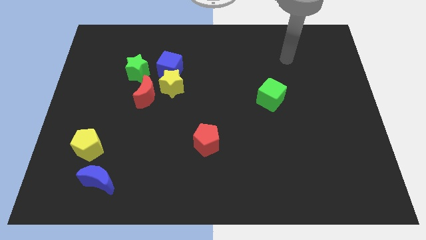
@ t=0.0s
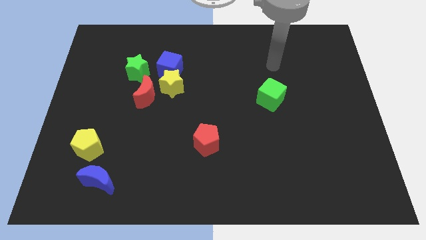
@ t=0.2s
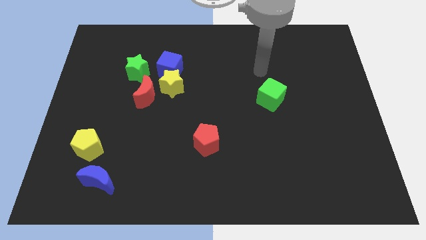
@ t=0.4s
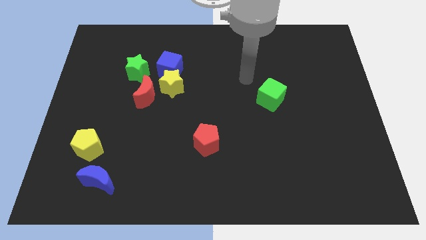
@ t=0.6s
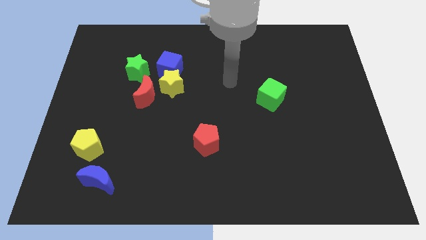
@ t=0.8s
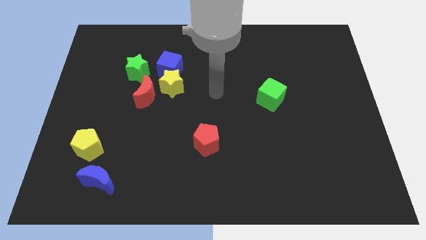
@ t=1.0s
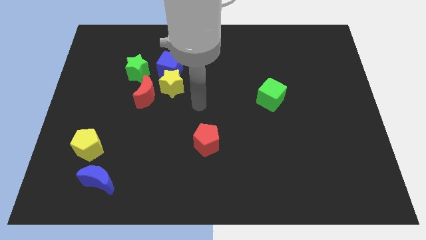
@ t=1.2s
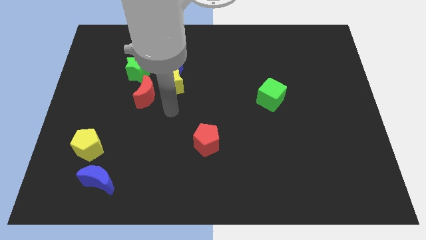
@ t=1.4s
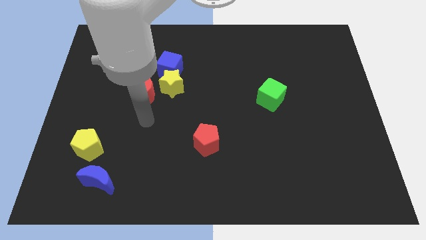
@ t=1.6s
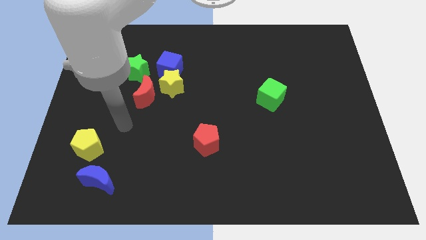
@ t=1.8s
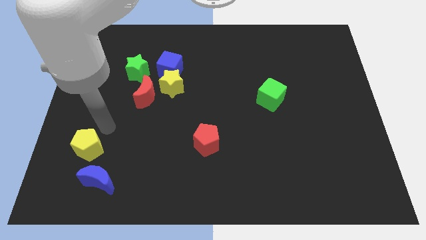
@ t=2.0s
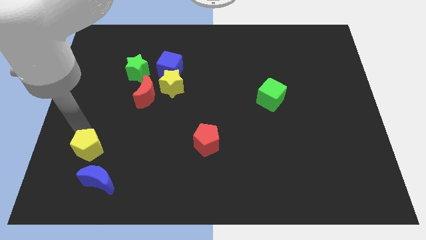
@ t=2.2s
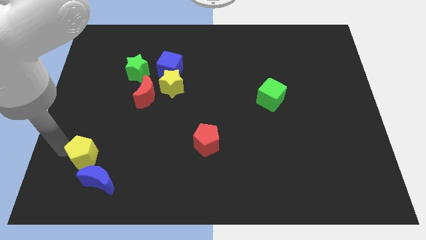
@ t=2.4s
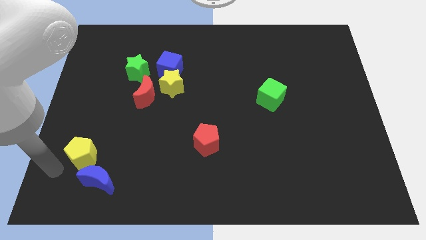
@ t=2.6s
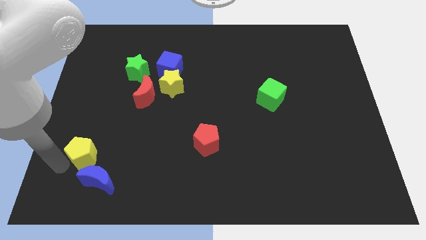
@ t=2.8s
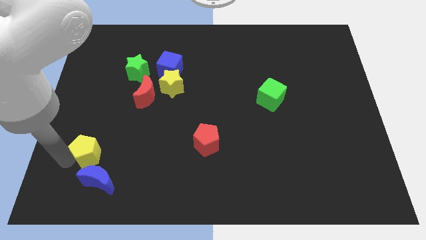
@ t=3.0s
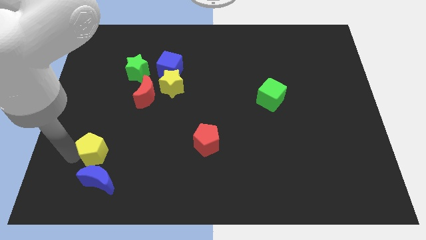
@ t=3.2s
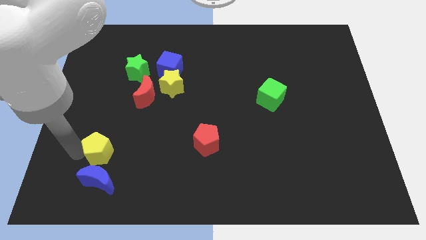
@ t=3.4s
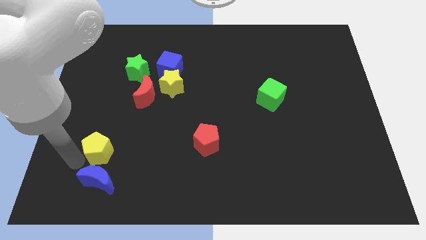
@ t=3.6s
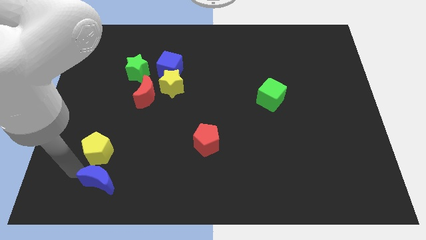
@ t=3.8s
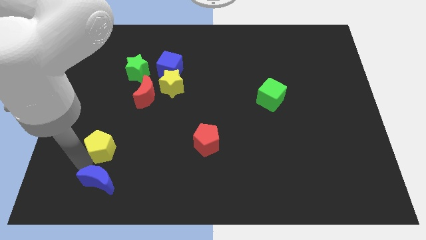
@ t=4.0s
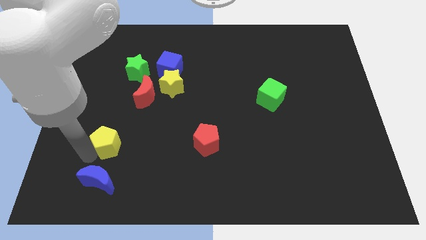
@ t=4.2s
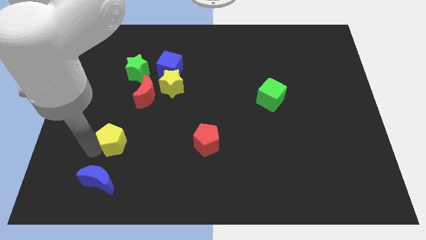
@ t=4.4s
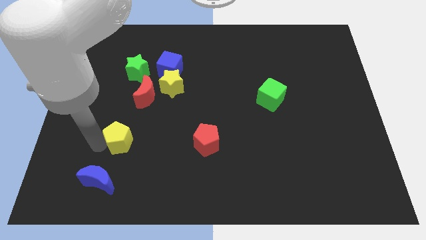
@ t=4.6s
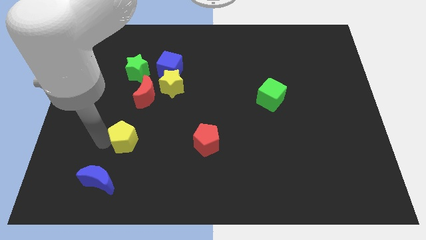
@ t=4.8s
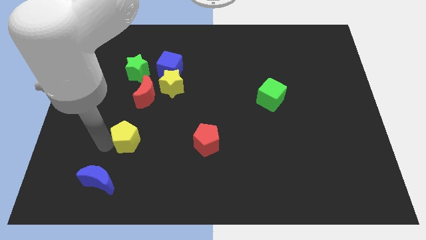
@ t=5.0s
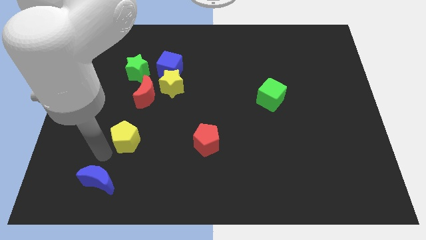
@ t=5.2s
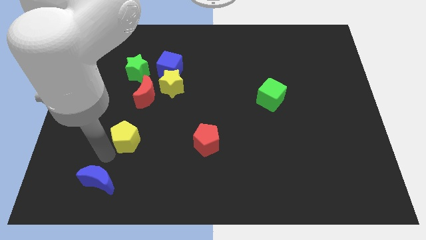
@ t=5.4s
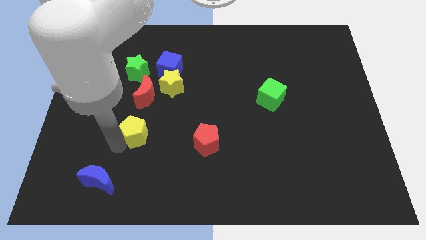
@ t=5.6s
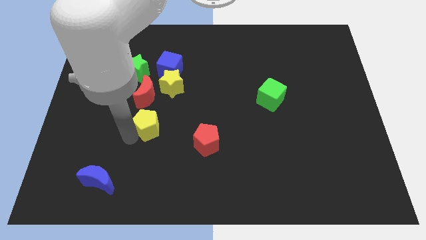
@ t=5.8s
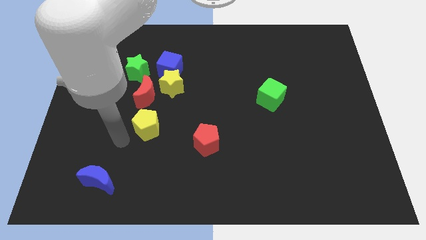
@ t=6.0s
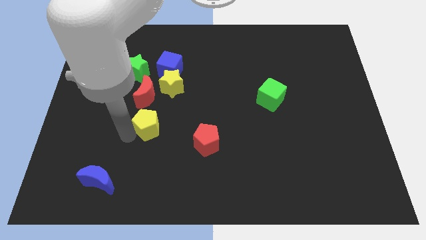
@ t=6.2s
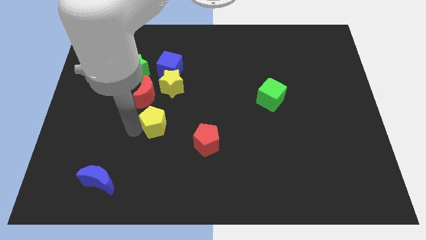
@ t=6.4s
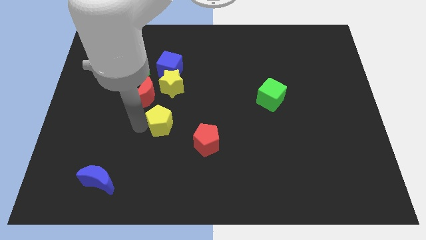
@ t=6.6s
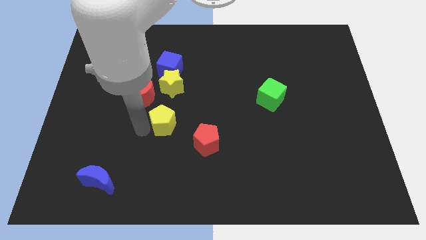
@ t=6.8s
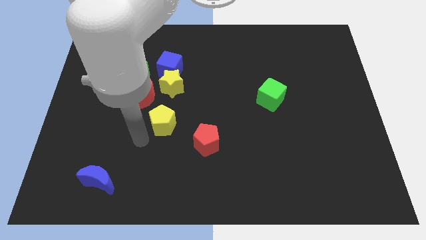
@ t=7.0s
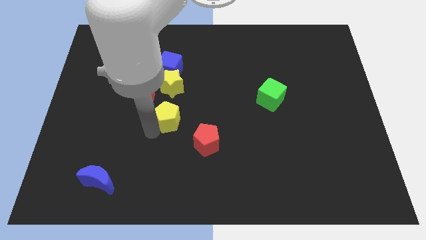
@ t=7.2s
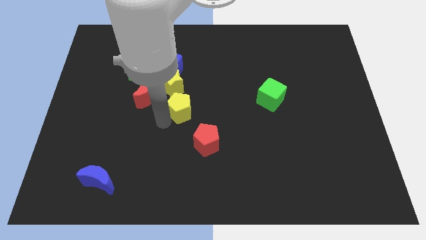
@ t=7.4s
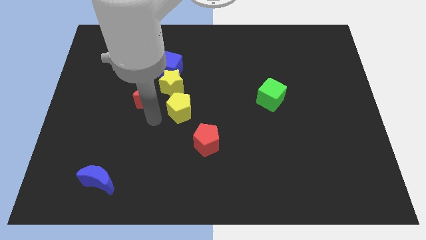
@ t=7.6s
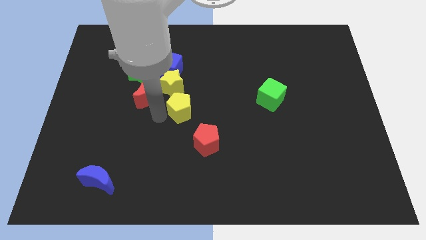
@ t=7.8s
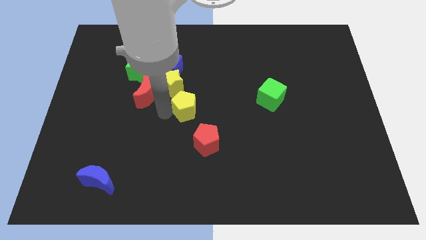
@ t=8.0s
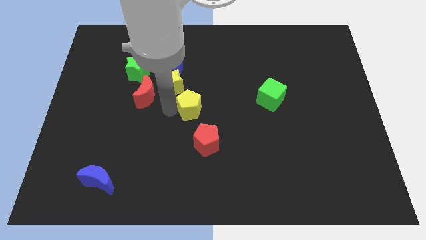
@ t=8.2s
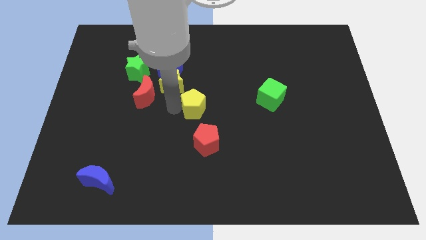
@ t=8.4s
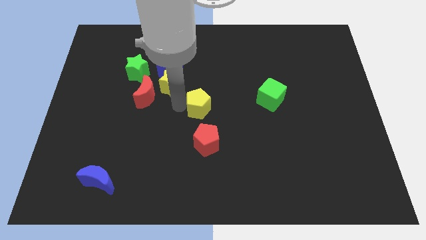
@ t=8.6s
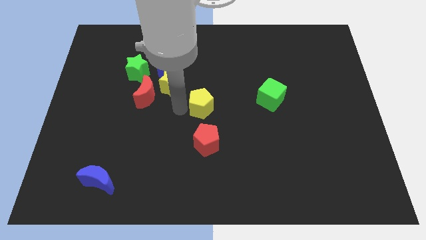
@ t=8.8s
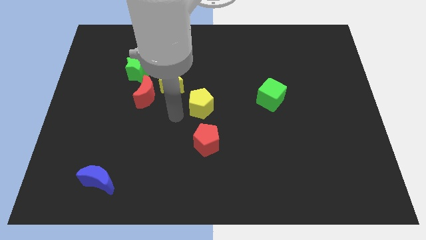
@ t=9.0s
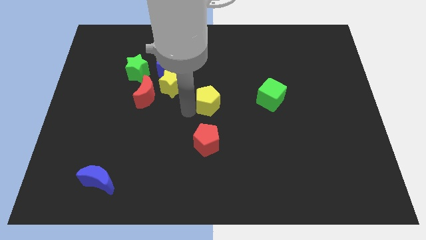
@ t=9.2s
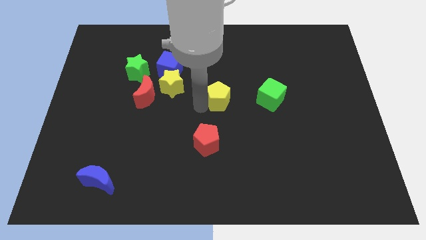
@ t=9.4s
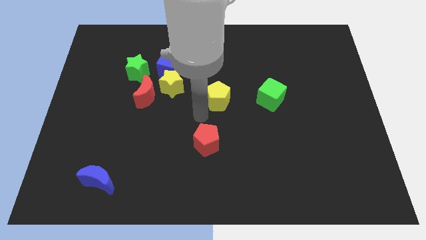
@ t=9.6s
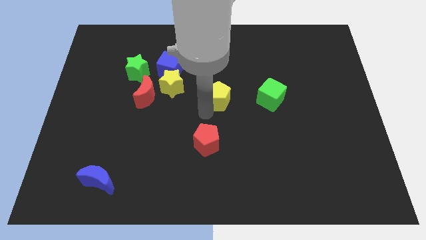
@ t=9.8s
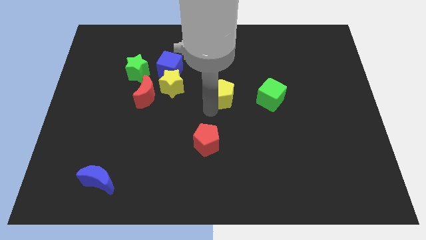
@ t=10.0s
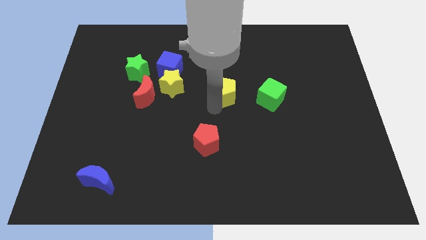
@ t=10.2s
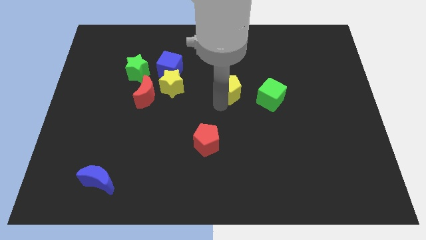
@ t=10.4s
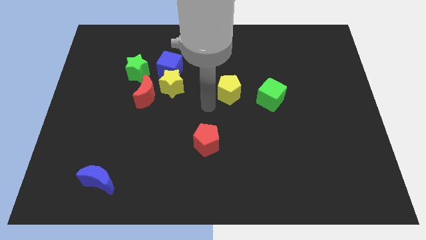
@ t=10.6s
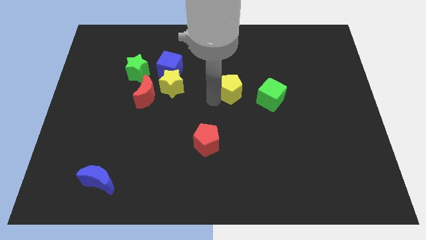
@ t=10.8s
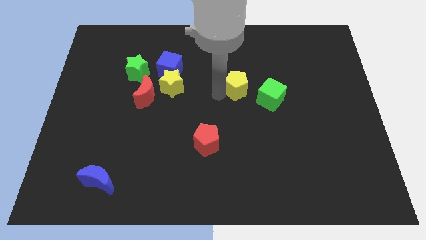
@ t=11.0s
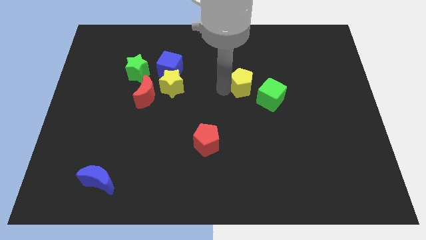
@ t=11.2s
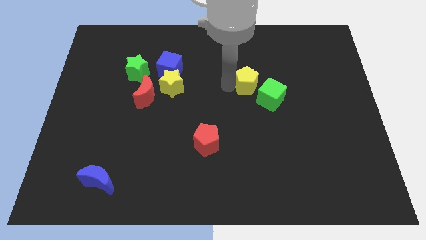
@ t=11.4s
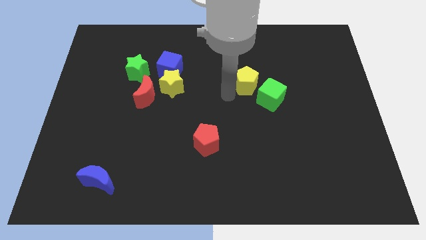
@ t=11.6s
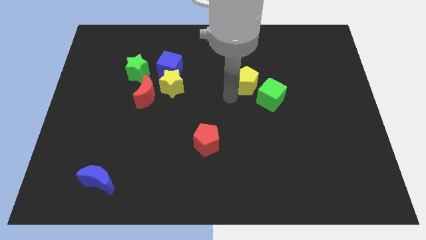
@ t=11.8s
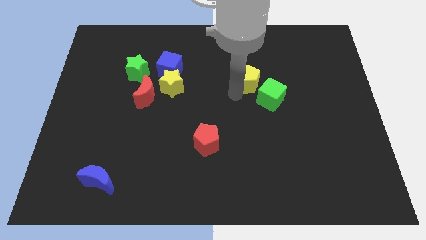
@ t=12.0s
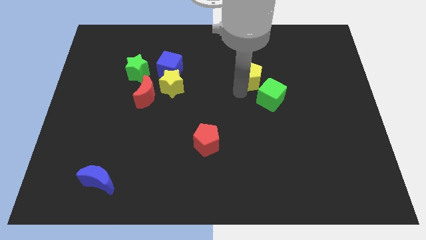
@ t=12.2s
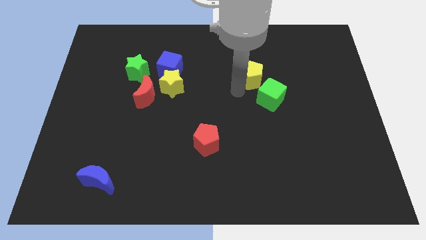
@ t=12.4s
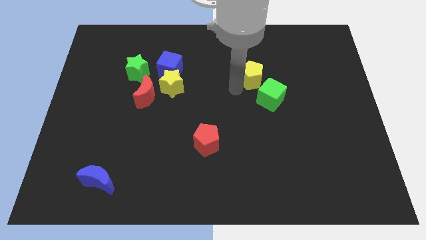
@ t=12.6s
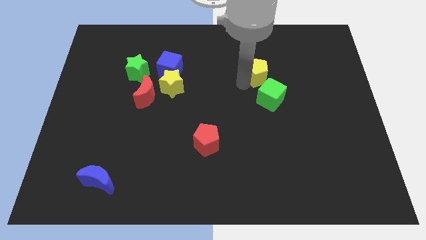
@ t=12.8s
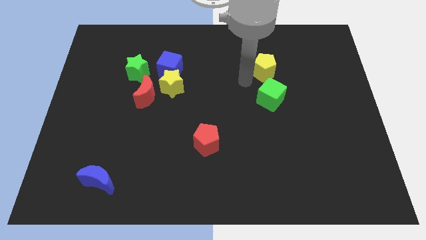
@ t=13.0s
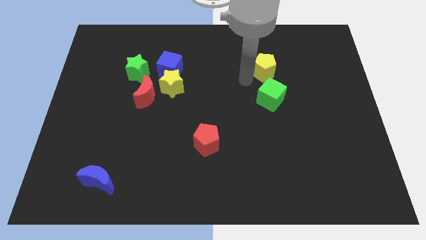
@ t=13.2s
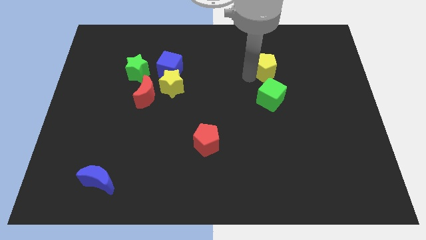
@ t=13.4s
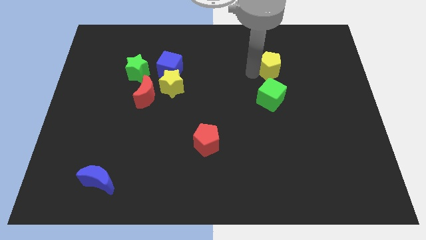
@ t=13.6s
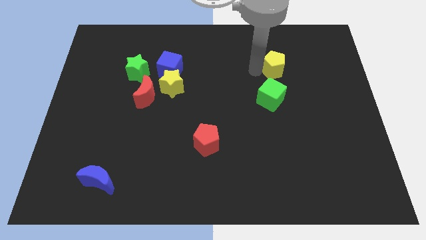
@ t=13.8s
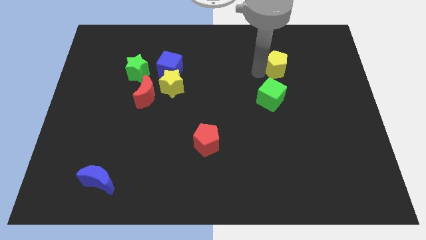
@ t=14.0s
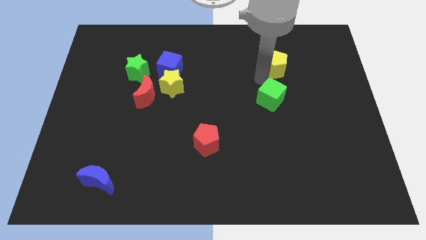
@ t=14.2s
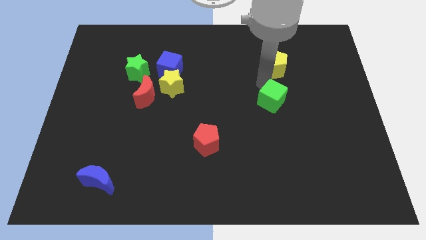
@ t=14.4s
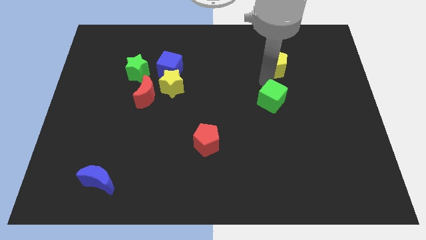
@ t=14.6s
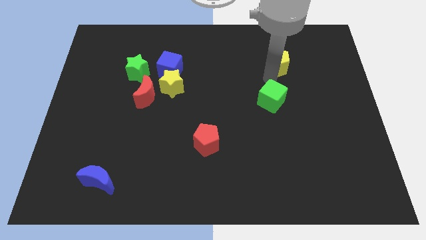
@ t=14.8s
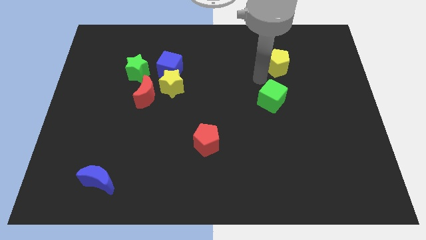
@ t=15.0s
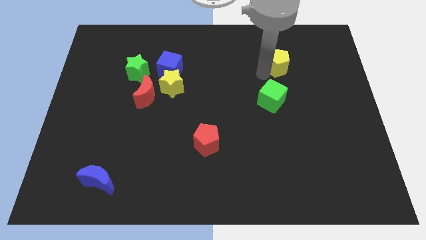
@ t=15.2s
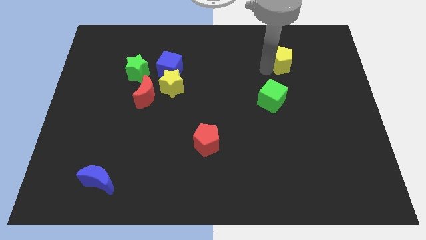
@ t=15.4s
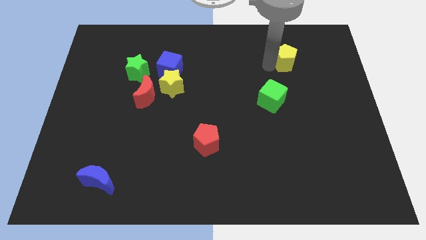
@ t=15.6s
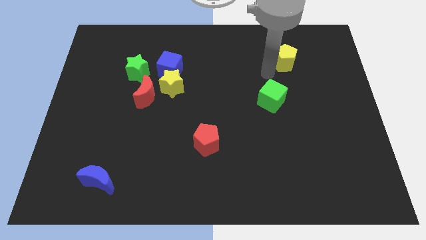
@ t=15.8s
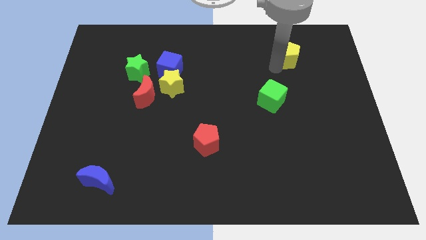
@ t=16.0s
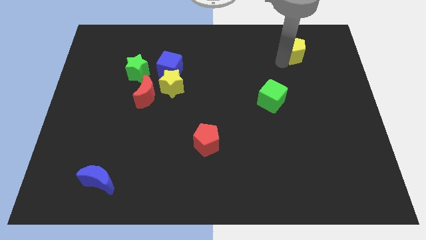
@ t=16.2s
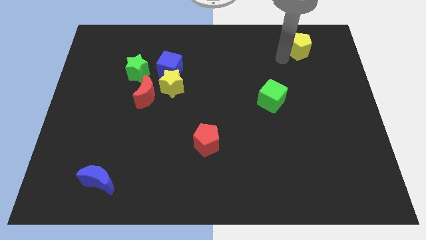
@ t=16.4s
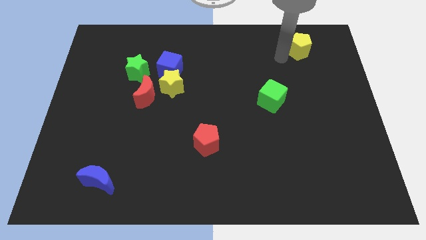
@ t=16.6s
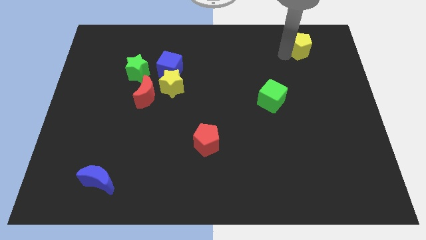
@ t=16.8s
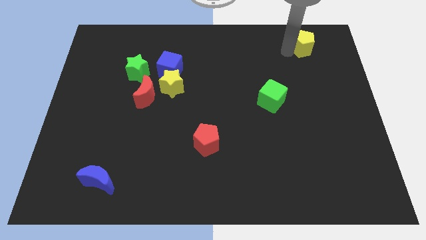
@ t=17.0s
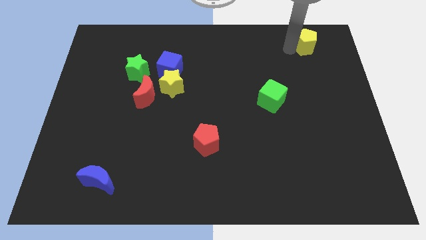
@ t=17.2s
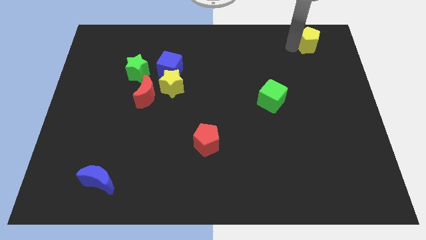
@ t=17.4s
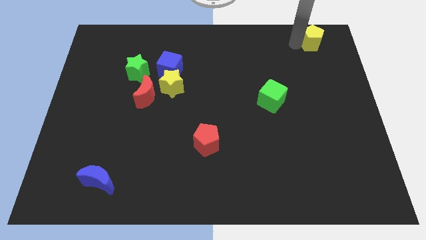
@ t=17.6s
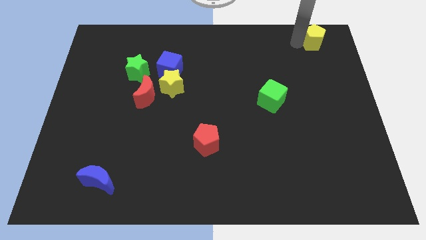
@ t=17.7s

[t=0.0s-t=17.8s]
slide the yellow pentagon to the upper right corner
